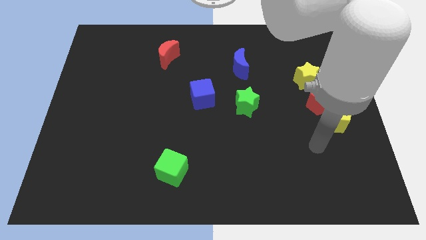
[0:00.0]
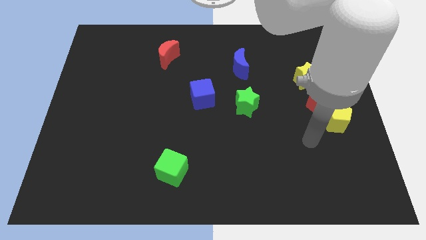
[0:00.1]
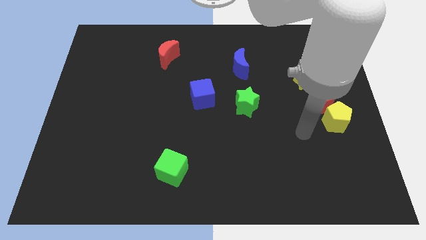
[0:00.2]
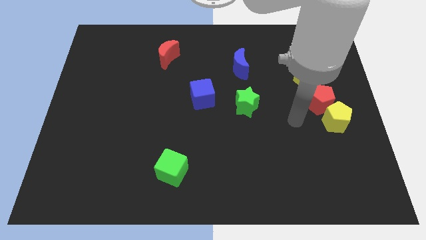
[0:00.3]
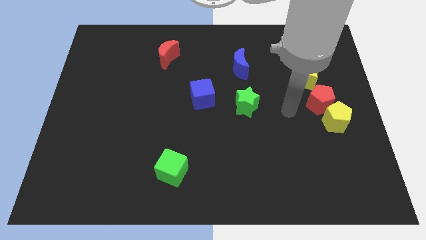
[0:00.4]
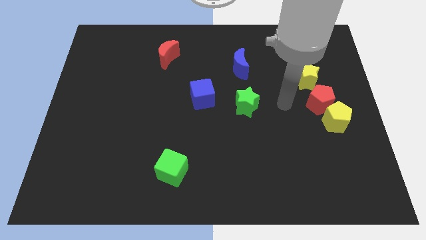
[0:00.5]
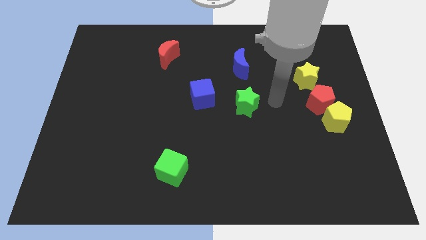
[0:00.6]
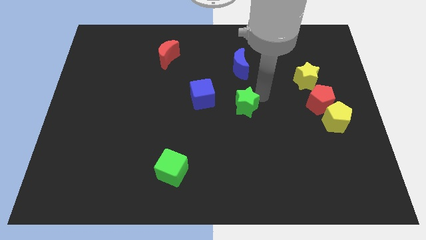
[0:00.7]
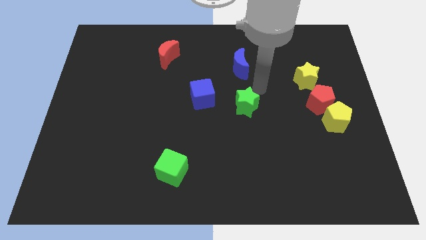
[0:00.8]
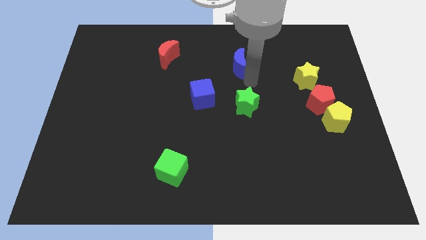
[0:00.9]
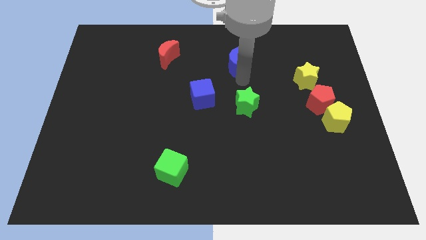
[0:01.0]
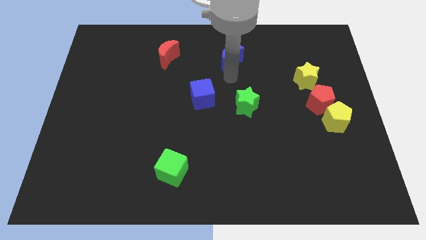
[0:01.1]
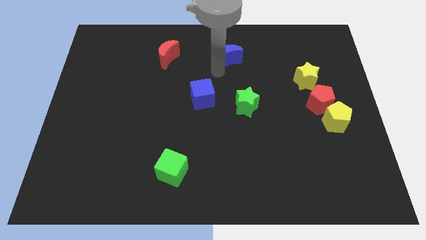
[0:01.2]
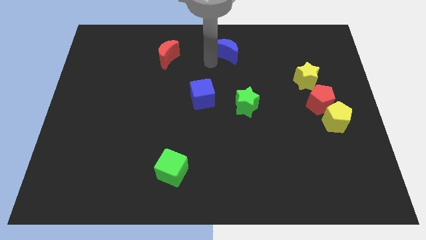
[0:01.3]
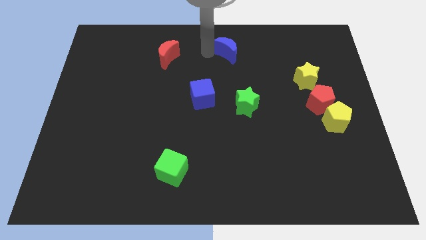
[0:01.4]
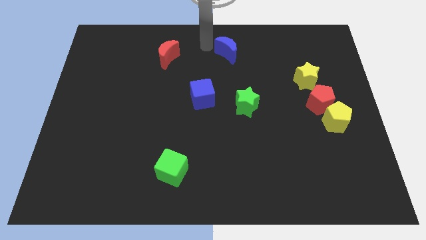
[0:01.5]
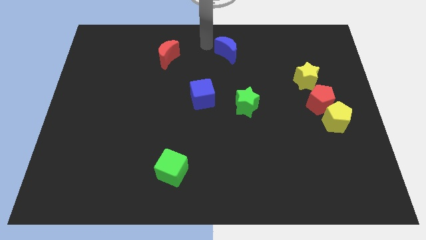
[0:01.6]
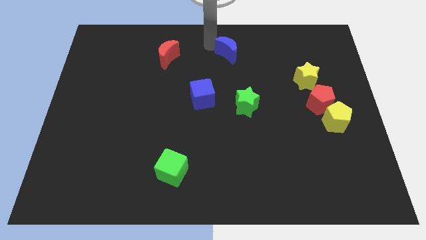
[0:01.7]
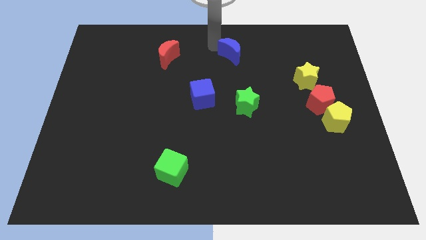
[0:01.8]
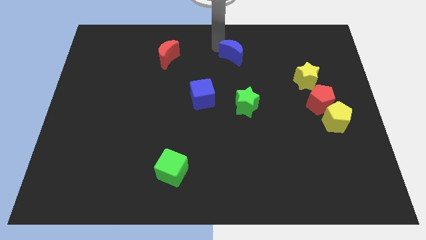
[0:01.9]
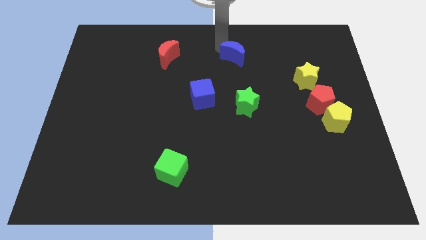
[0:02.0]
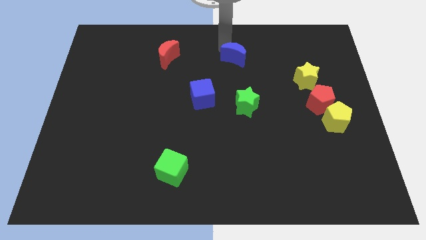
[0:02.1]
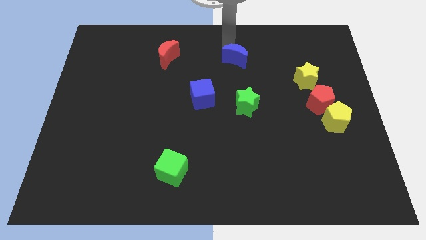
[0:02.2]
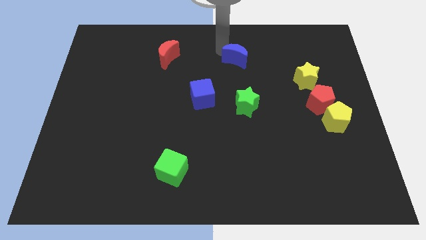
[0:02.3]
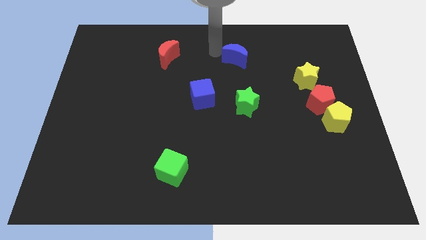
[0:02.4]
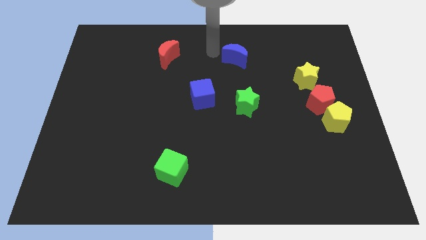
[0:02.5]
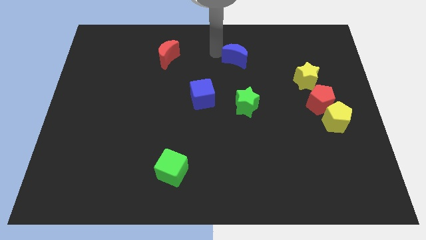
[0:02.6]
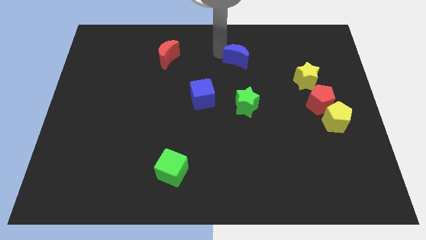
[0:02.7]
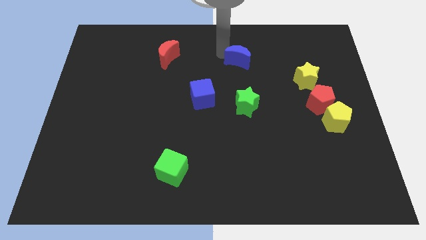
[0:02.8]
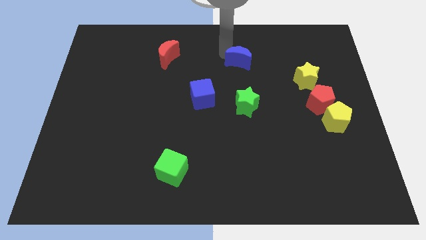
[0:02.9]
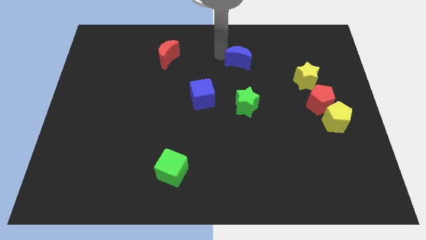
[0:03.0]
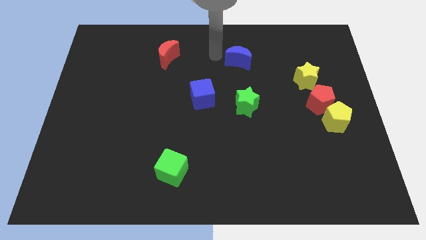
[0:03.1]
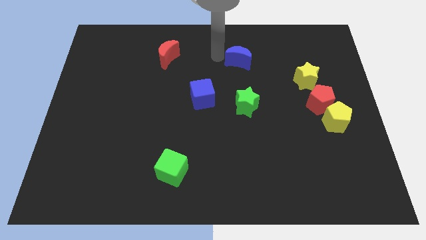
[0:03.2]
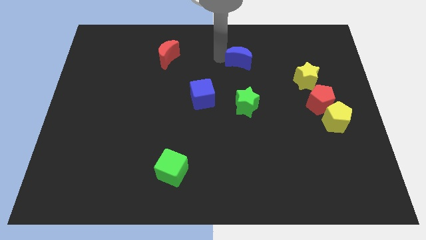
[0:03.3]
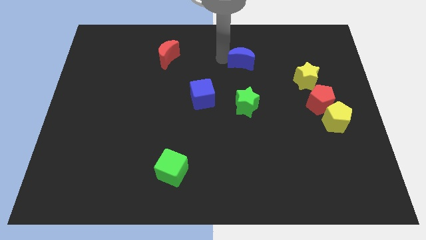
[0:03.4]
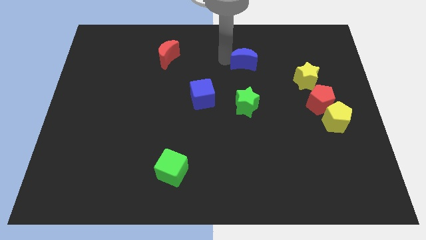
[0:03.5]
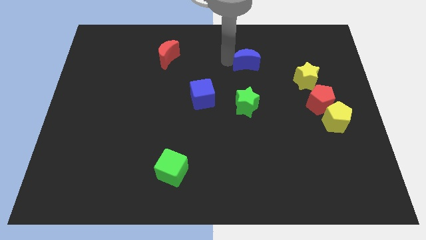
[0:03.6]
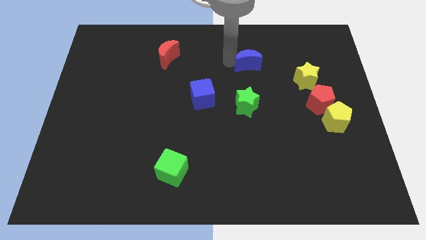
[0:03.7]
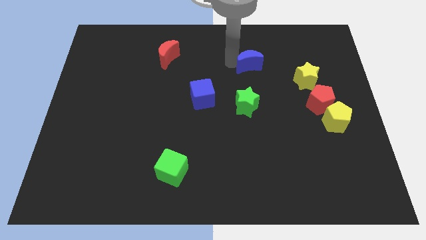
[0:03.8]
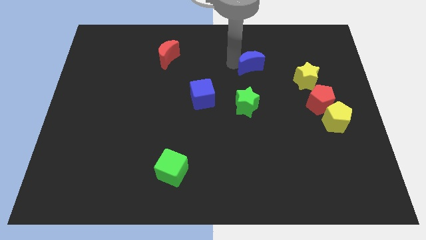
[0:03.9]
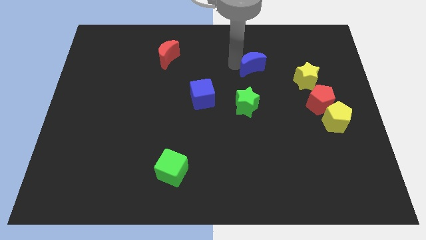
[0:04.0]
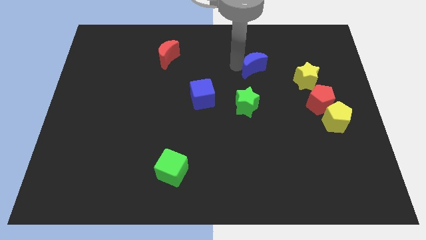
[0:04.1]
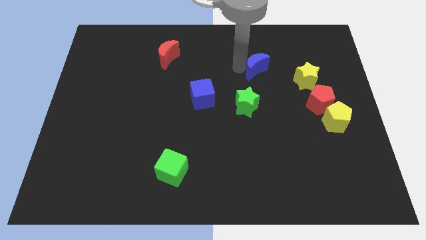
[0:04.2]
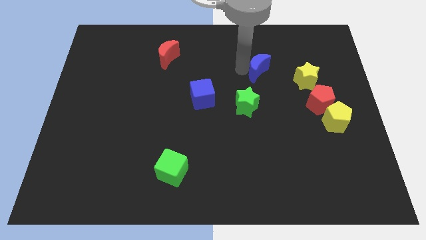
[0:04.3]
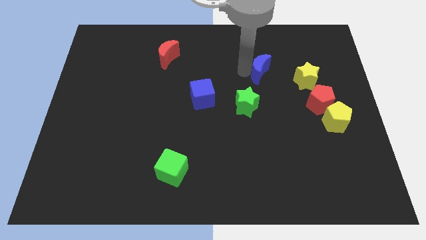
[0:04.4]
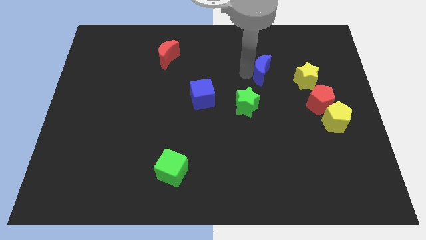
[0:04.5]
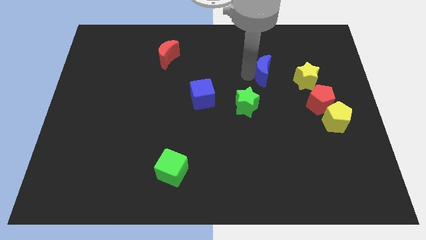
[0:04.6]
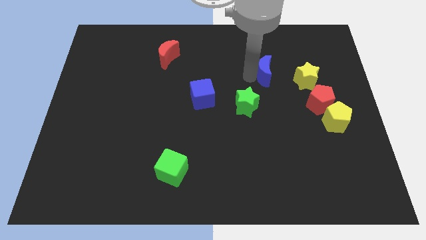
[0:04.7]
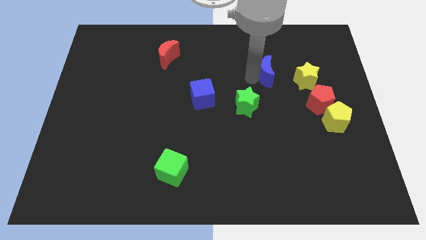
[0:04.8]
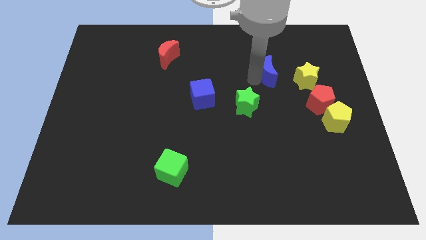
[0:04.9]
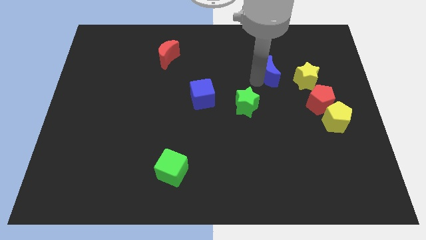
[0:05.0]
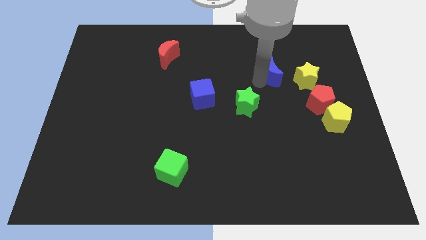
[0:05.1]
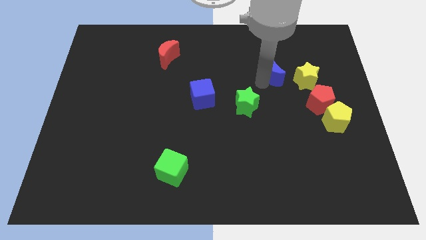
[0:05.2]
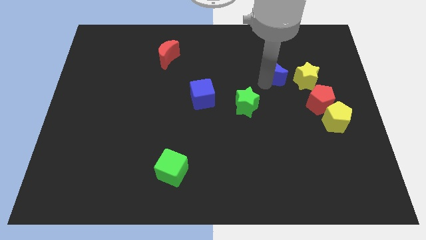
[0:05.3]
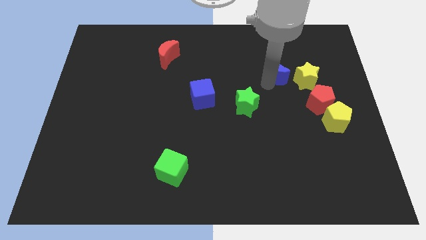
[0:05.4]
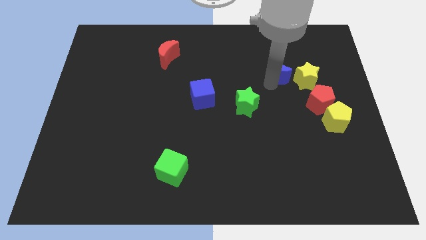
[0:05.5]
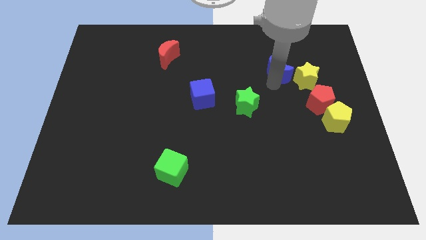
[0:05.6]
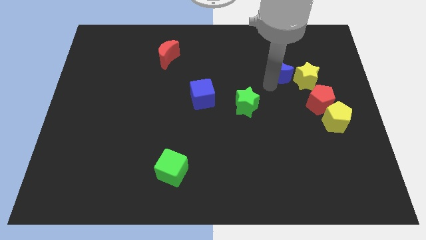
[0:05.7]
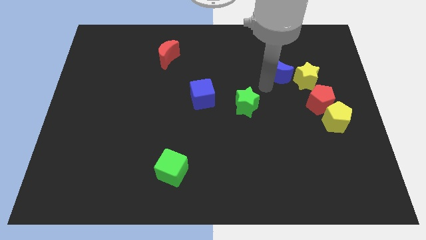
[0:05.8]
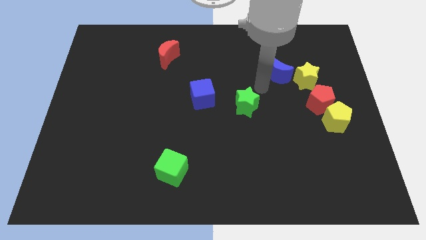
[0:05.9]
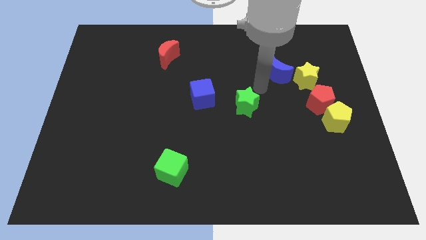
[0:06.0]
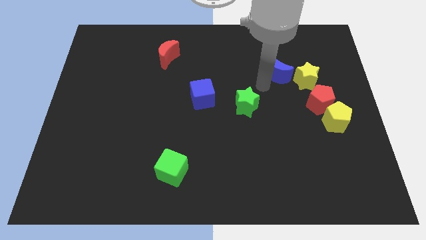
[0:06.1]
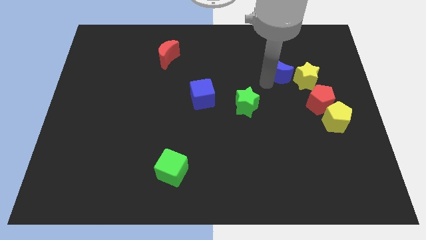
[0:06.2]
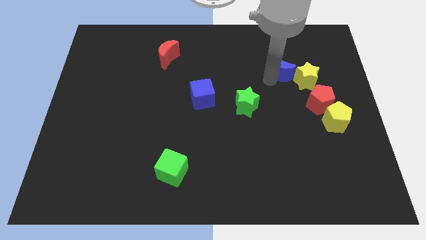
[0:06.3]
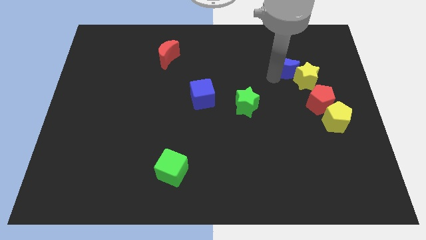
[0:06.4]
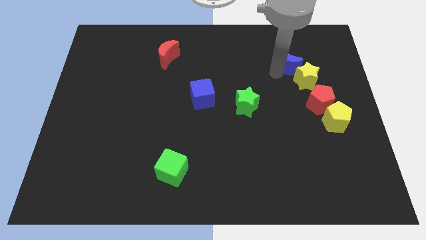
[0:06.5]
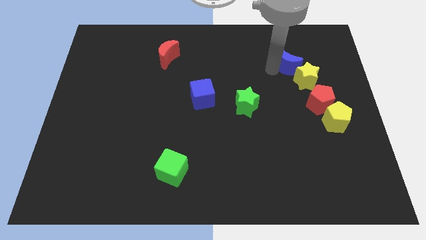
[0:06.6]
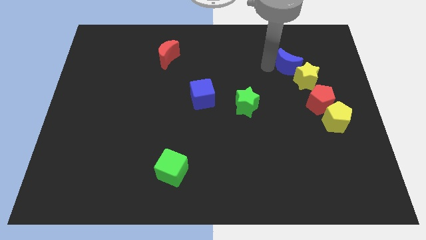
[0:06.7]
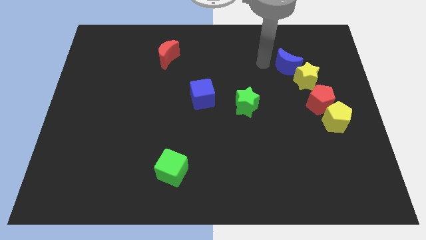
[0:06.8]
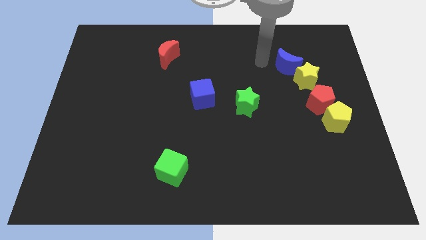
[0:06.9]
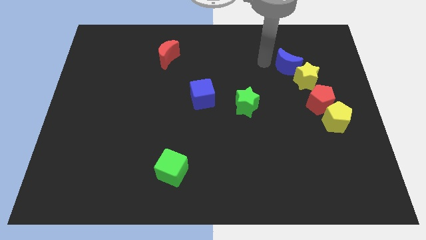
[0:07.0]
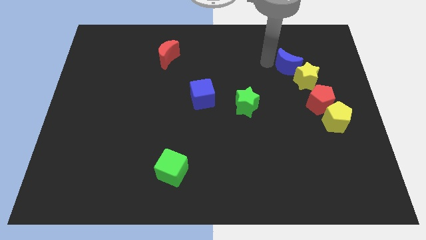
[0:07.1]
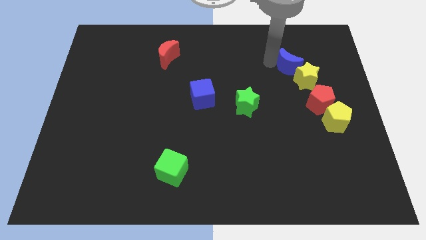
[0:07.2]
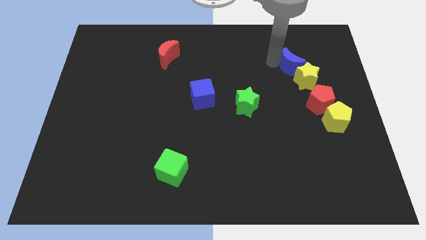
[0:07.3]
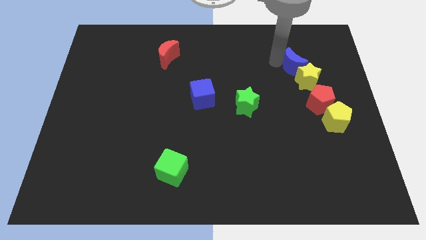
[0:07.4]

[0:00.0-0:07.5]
slide the blue moon to the top side of the red pentagon
